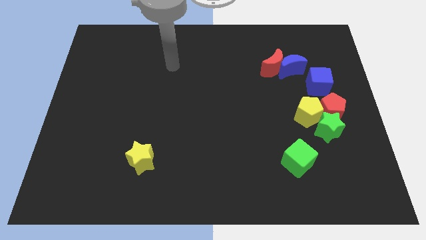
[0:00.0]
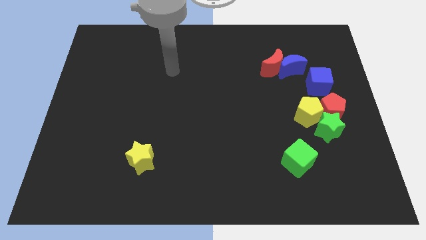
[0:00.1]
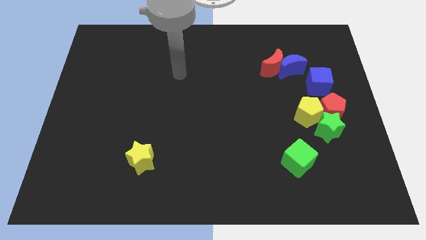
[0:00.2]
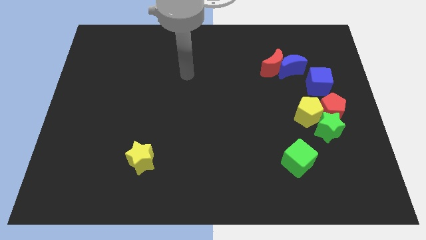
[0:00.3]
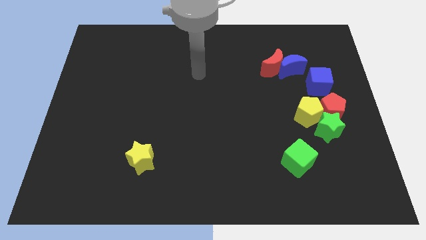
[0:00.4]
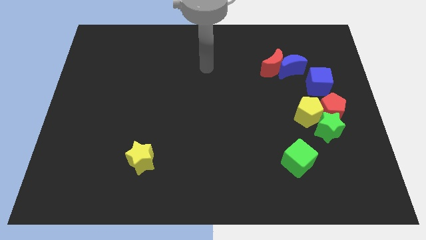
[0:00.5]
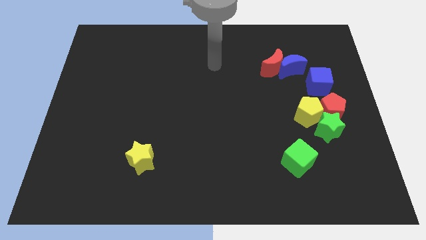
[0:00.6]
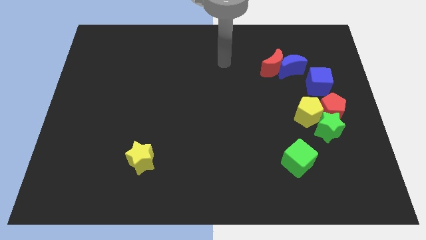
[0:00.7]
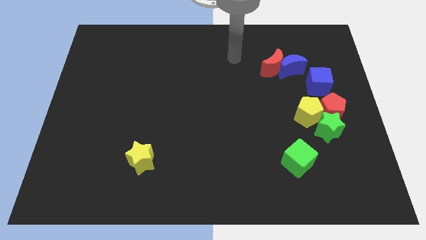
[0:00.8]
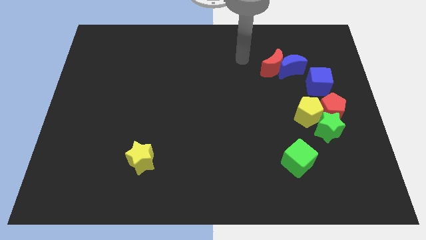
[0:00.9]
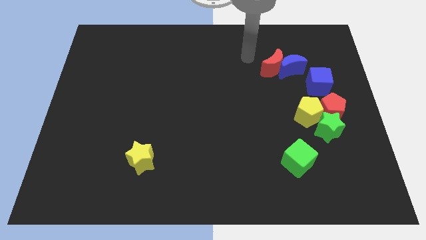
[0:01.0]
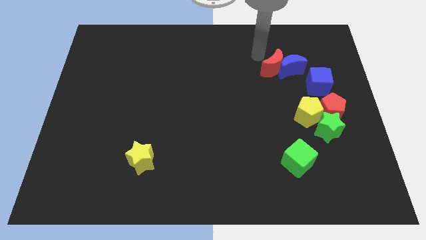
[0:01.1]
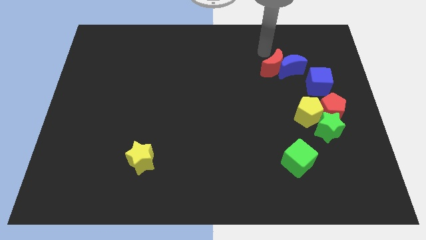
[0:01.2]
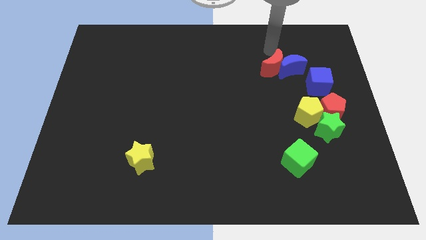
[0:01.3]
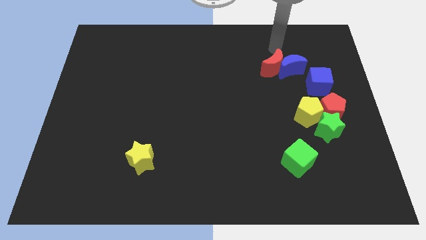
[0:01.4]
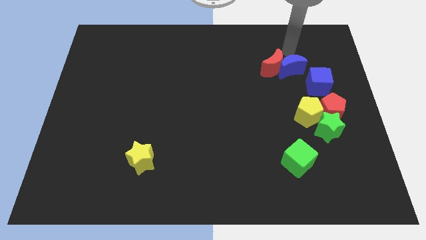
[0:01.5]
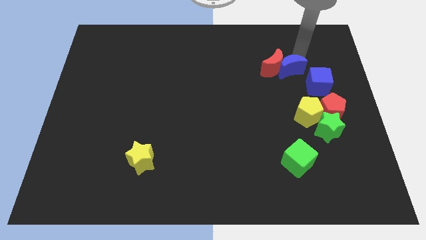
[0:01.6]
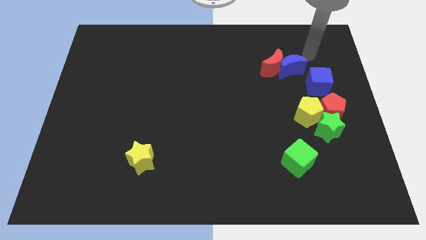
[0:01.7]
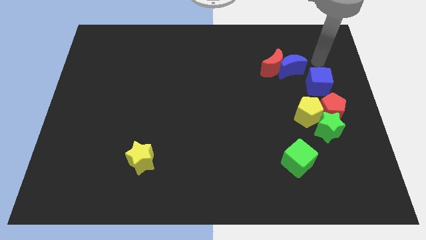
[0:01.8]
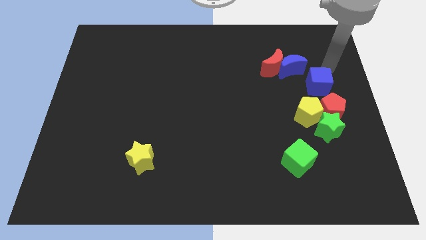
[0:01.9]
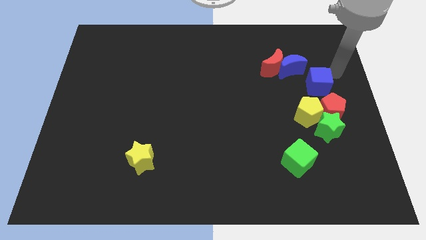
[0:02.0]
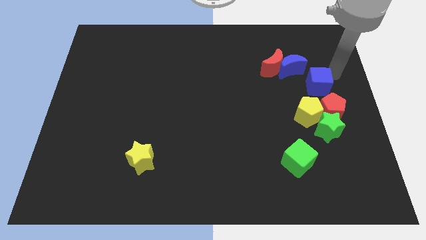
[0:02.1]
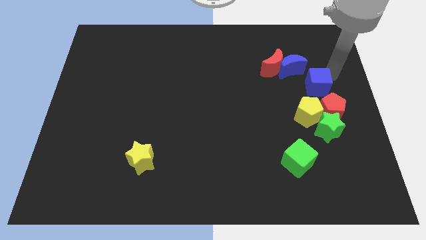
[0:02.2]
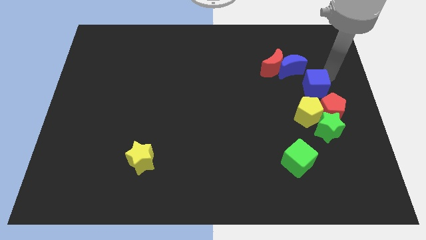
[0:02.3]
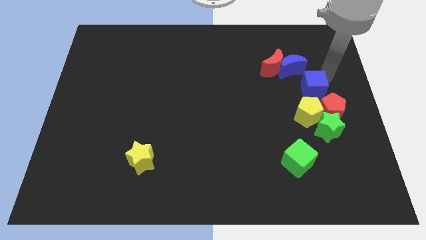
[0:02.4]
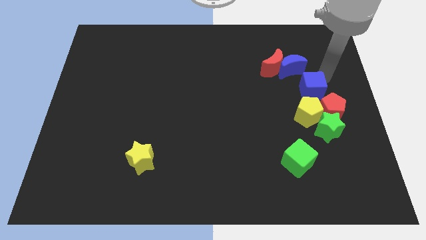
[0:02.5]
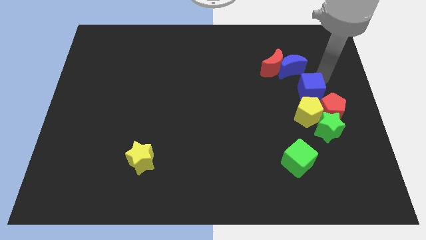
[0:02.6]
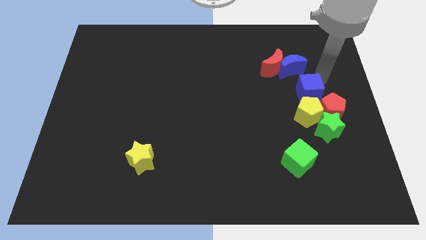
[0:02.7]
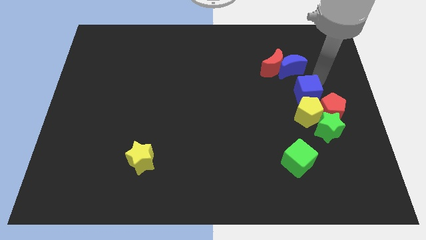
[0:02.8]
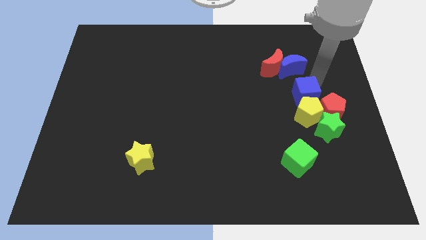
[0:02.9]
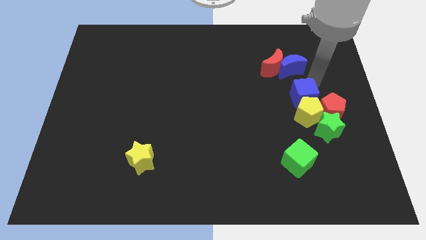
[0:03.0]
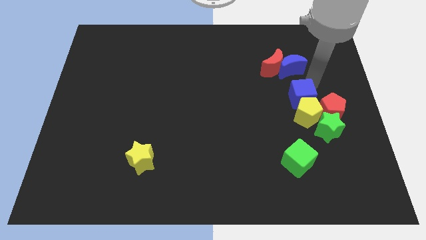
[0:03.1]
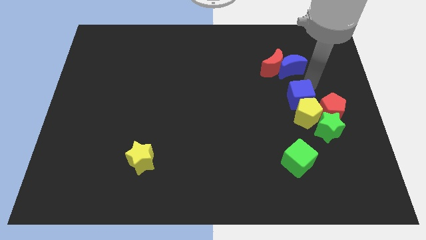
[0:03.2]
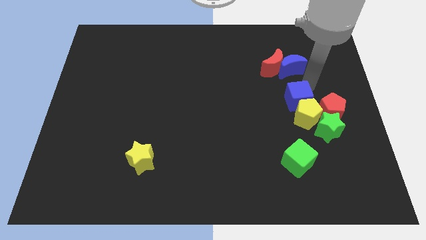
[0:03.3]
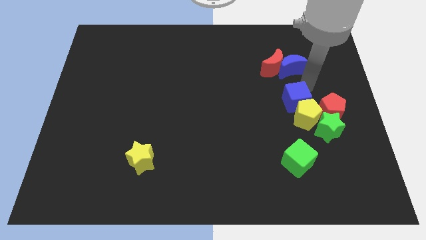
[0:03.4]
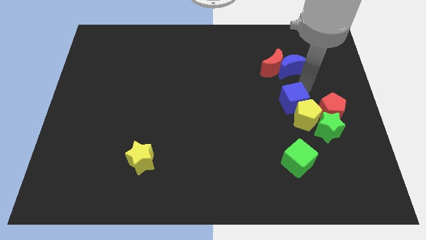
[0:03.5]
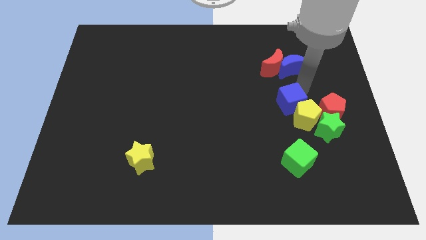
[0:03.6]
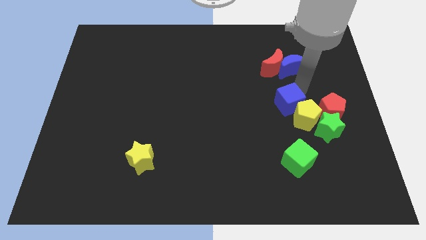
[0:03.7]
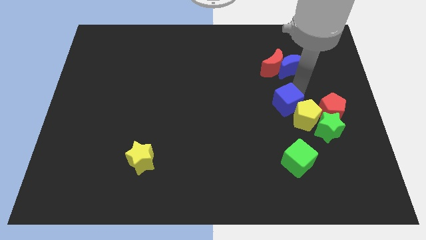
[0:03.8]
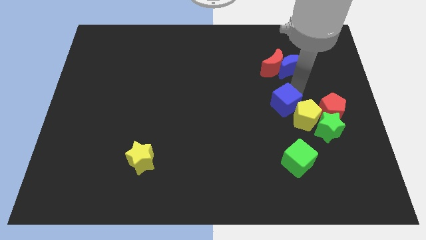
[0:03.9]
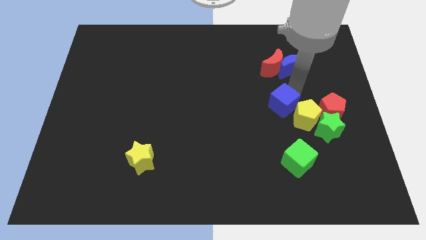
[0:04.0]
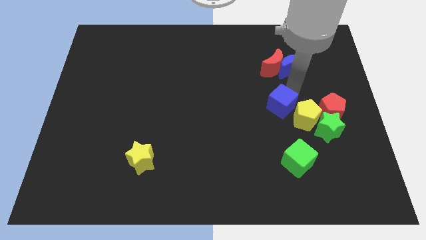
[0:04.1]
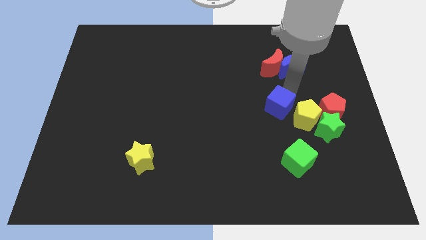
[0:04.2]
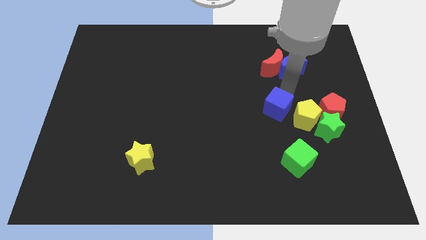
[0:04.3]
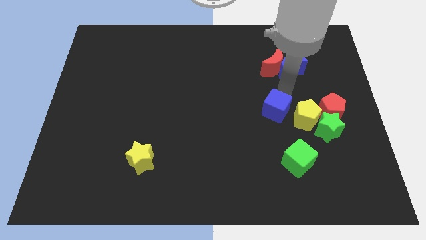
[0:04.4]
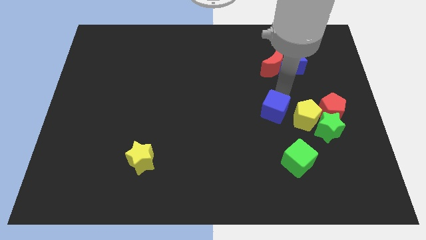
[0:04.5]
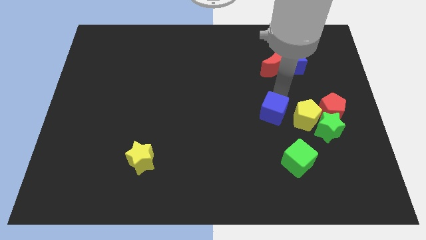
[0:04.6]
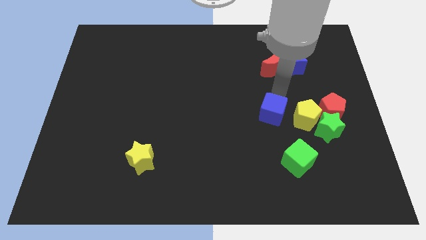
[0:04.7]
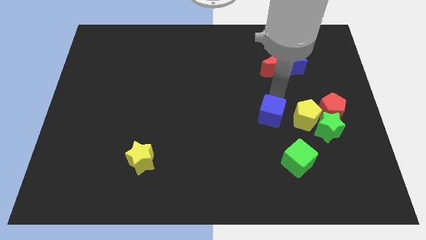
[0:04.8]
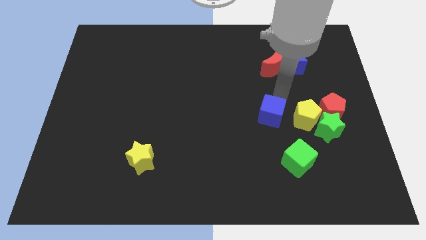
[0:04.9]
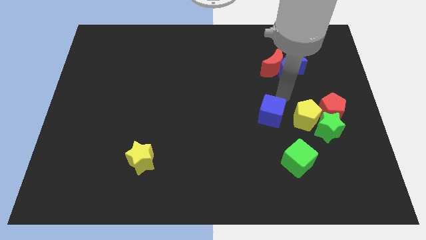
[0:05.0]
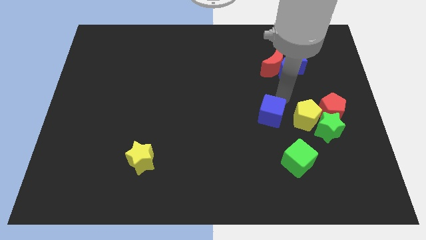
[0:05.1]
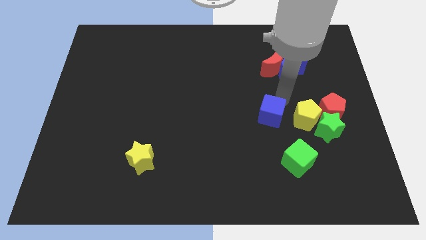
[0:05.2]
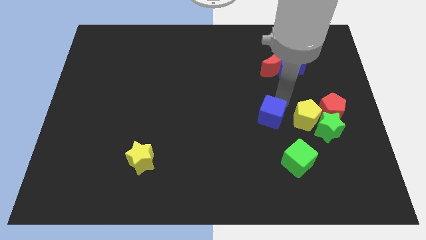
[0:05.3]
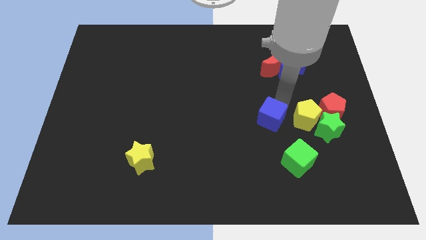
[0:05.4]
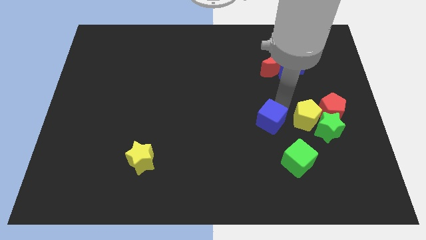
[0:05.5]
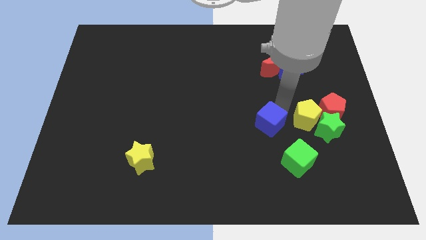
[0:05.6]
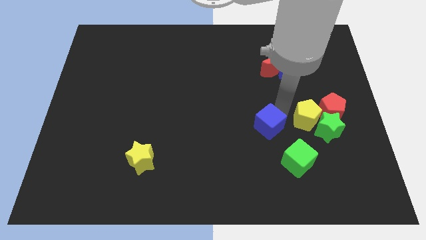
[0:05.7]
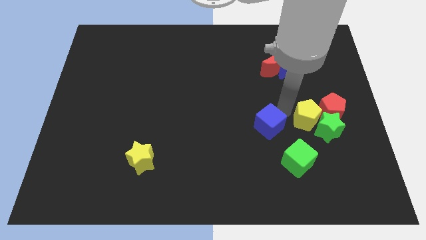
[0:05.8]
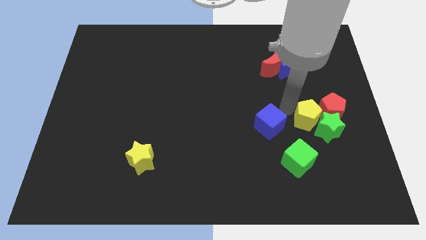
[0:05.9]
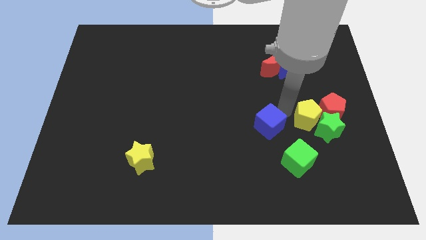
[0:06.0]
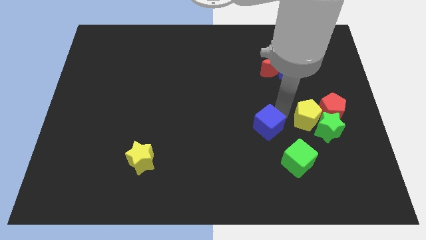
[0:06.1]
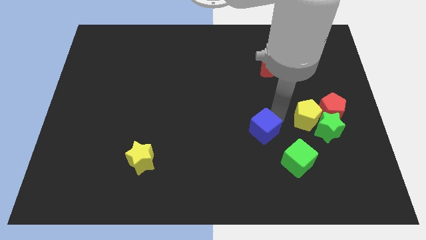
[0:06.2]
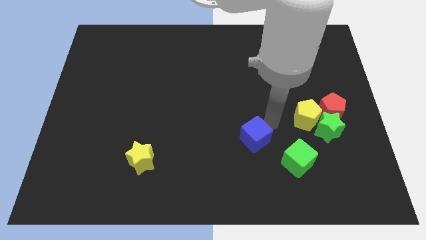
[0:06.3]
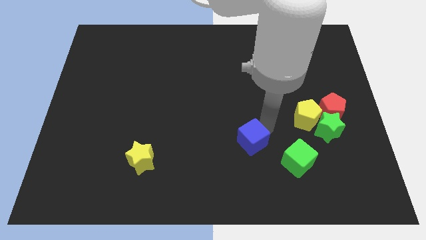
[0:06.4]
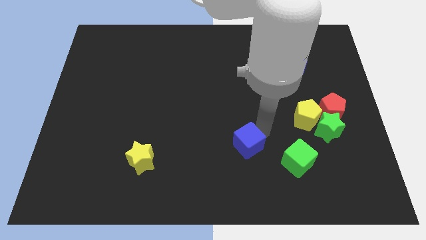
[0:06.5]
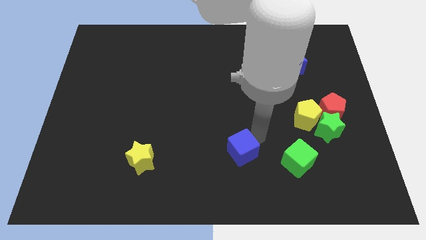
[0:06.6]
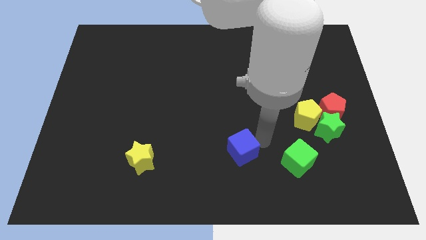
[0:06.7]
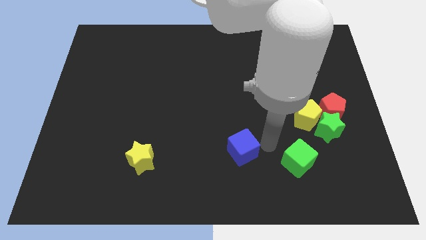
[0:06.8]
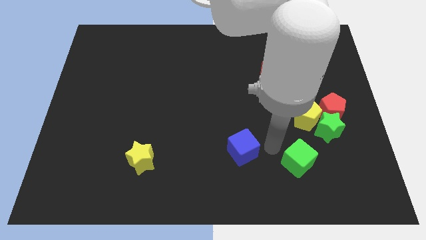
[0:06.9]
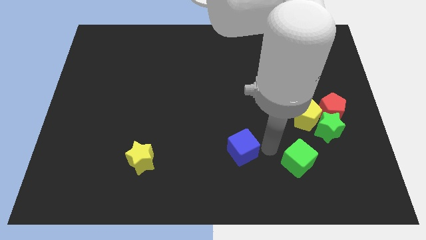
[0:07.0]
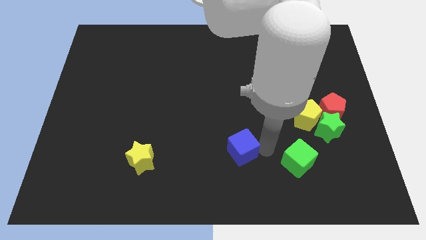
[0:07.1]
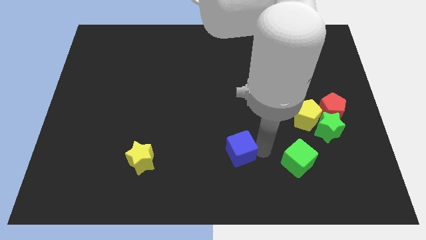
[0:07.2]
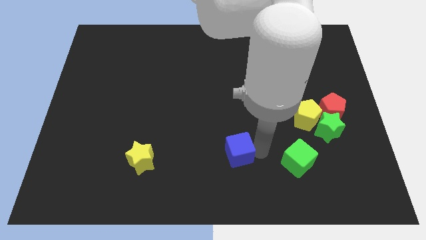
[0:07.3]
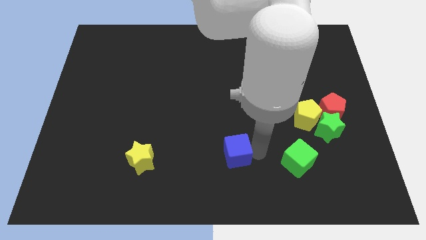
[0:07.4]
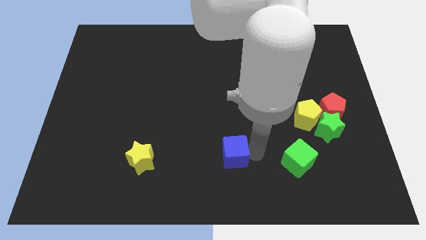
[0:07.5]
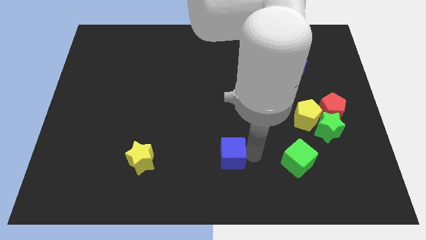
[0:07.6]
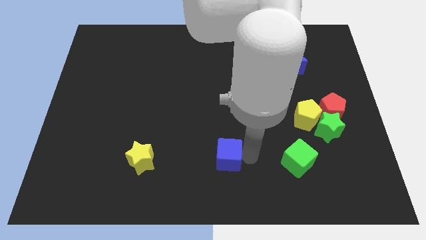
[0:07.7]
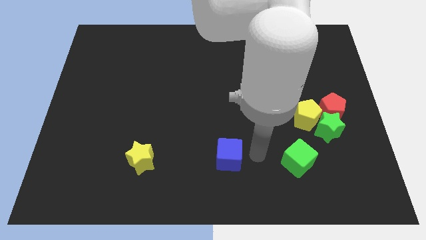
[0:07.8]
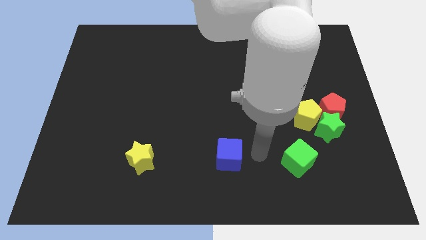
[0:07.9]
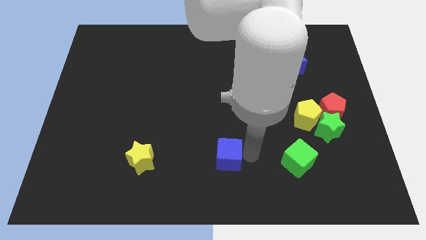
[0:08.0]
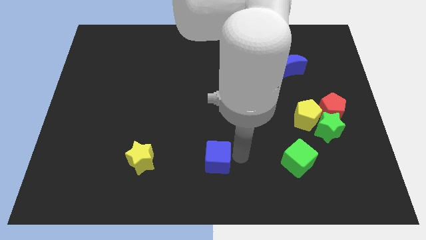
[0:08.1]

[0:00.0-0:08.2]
push the blue cube right of the yellow star
